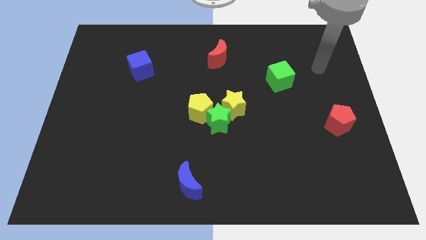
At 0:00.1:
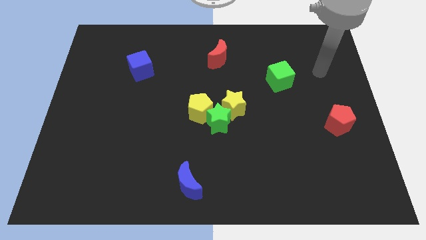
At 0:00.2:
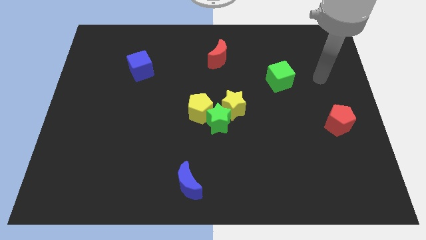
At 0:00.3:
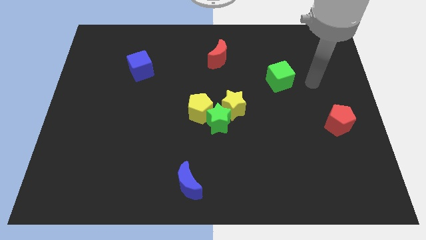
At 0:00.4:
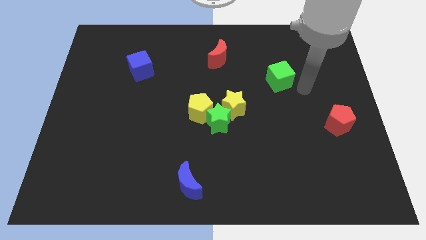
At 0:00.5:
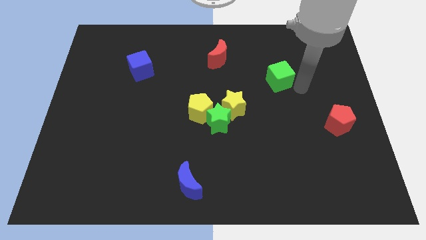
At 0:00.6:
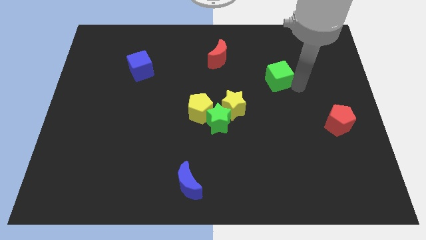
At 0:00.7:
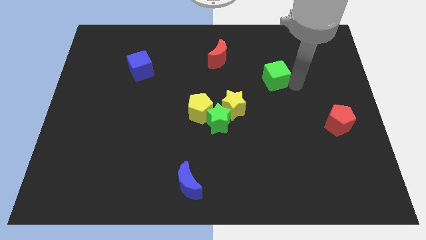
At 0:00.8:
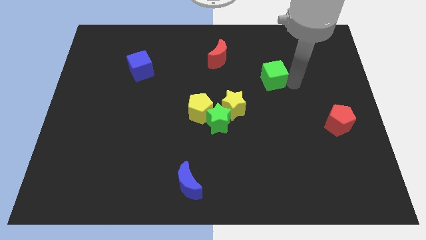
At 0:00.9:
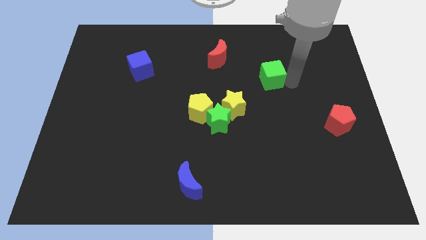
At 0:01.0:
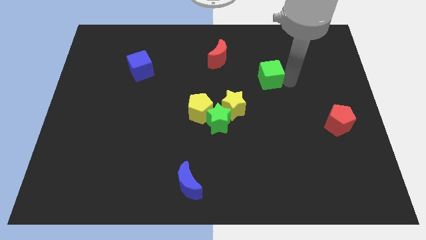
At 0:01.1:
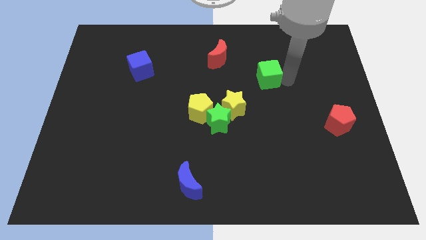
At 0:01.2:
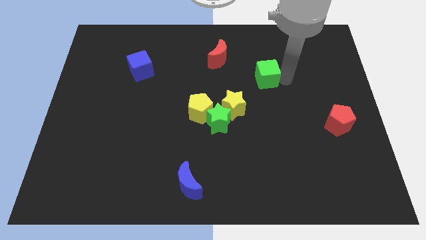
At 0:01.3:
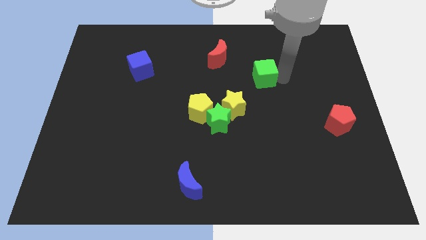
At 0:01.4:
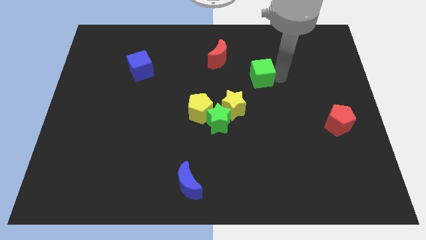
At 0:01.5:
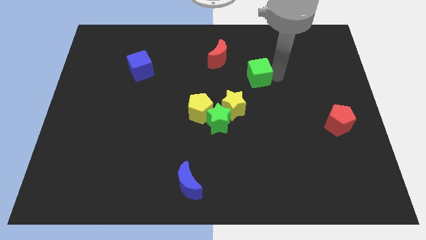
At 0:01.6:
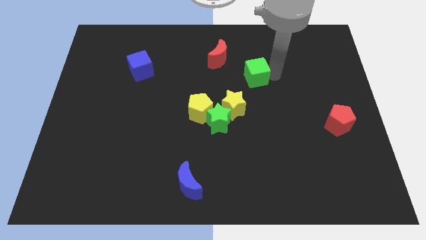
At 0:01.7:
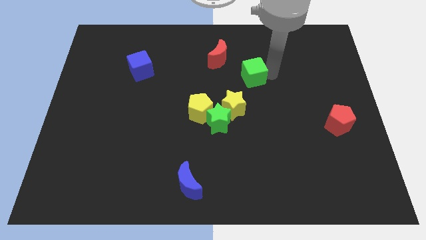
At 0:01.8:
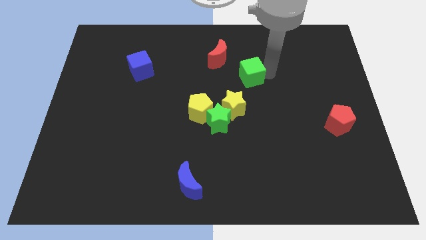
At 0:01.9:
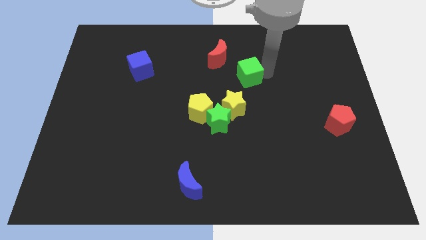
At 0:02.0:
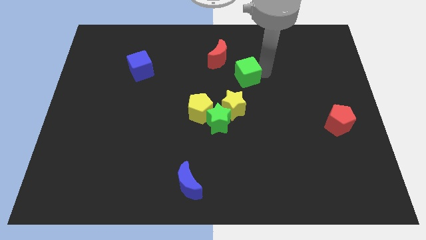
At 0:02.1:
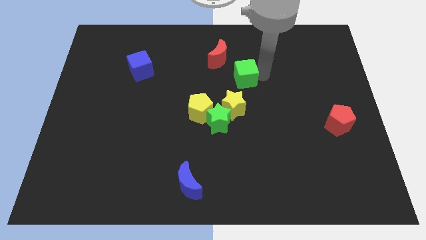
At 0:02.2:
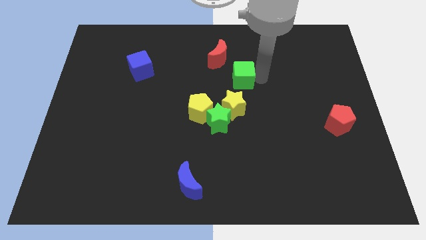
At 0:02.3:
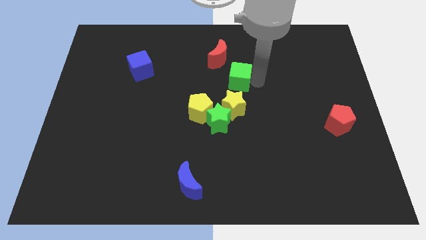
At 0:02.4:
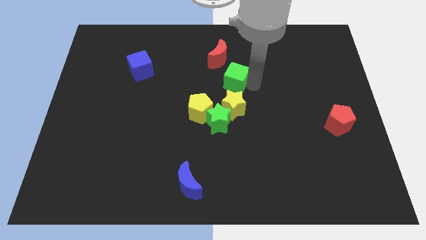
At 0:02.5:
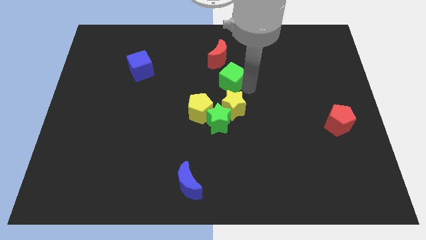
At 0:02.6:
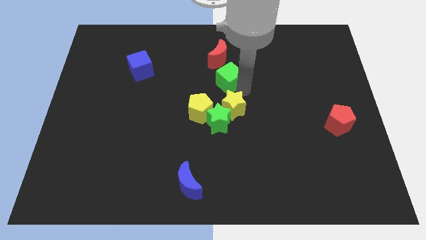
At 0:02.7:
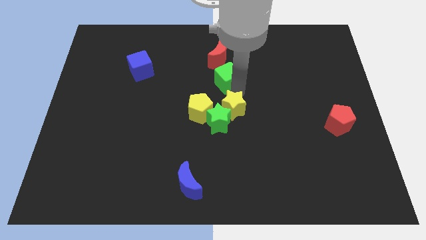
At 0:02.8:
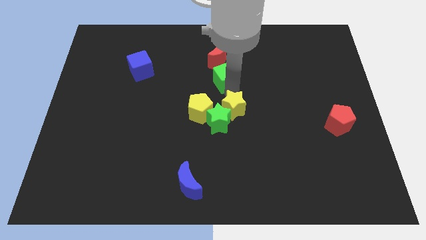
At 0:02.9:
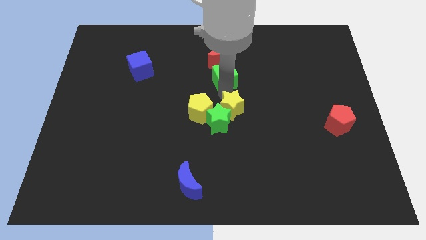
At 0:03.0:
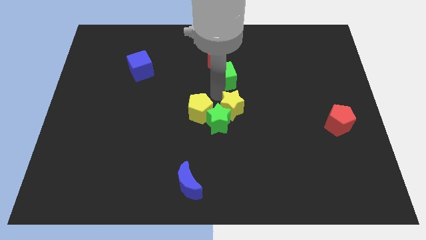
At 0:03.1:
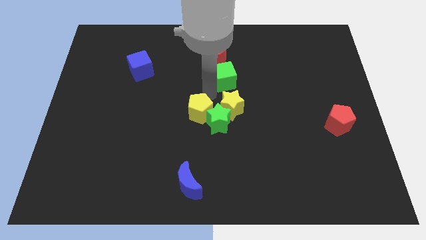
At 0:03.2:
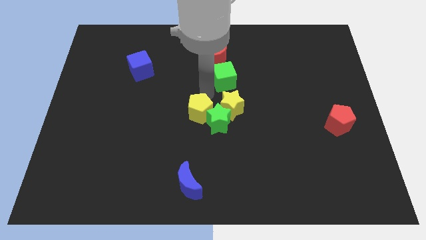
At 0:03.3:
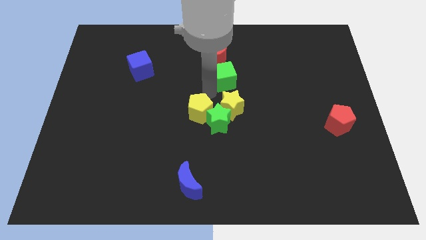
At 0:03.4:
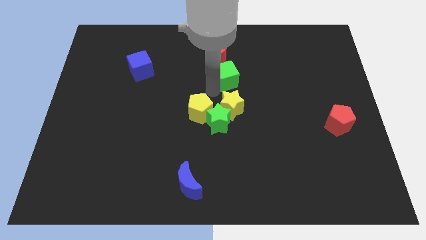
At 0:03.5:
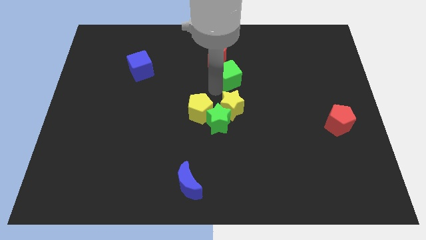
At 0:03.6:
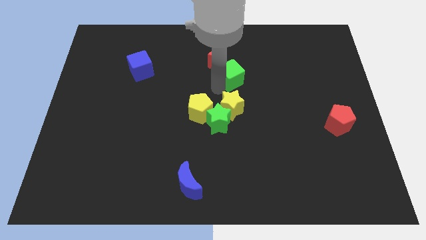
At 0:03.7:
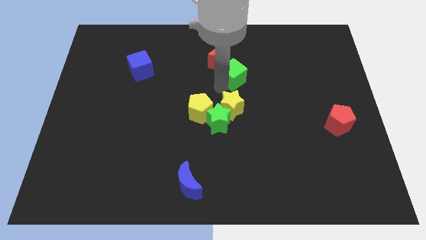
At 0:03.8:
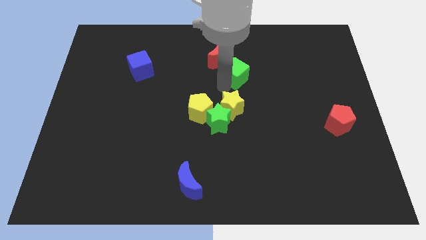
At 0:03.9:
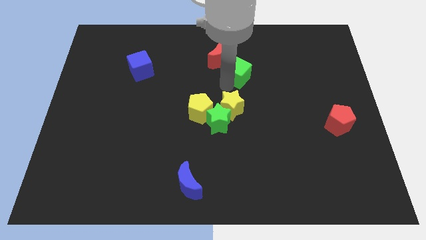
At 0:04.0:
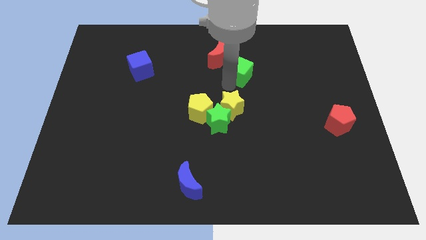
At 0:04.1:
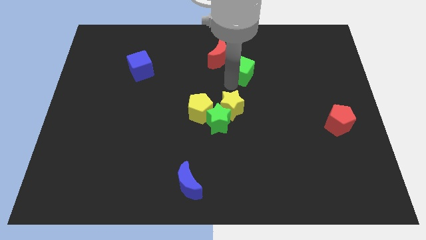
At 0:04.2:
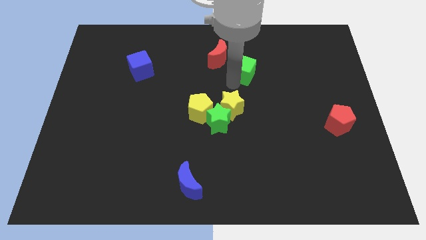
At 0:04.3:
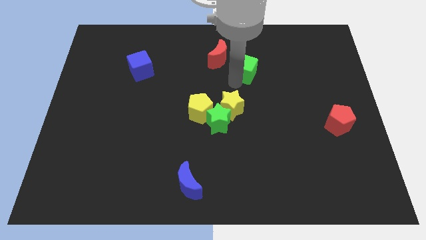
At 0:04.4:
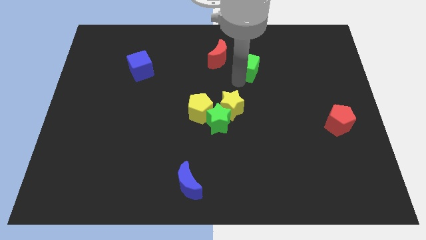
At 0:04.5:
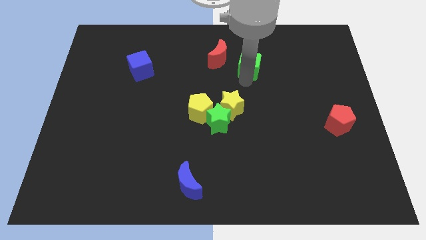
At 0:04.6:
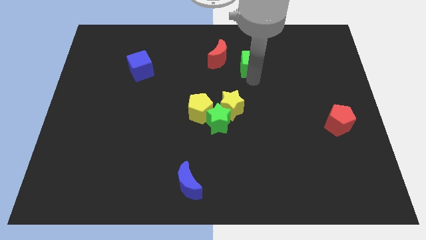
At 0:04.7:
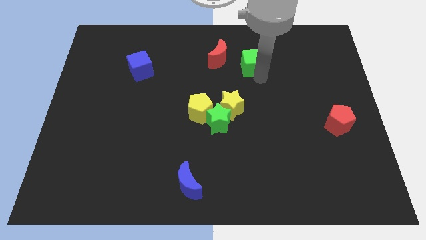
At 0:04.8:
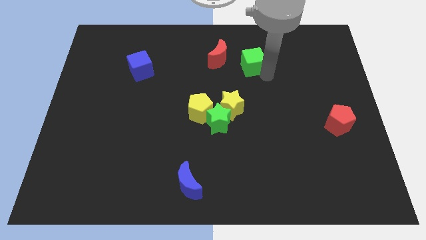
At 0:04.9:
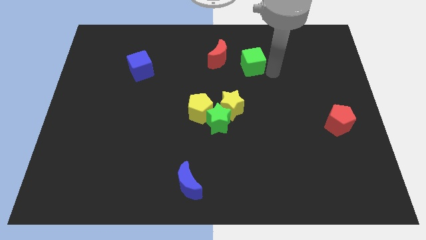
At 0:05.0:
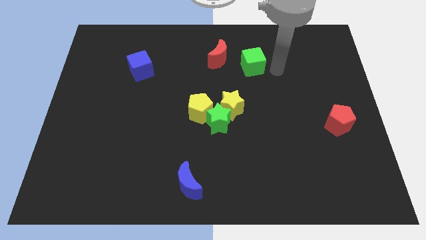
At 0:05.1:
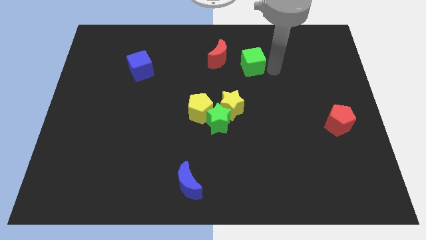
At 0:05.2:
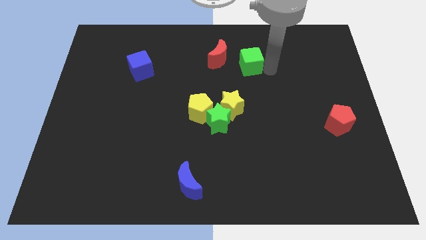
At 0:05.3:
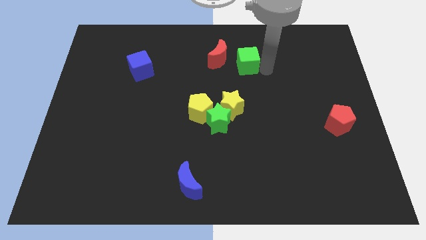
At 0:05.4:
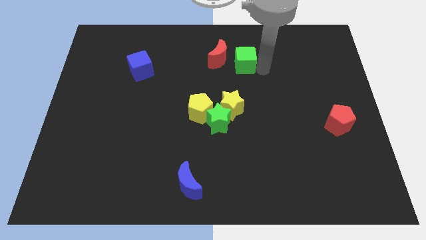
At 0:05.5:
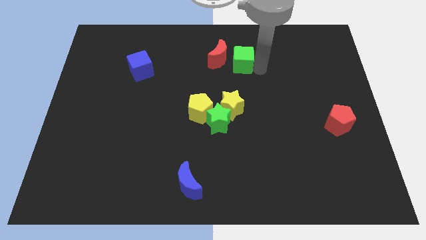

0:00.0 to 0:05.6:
push the green cube to the red moon

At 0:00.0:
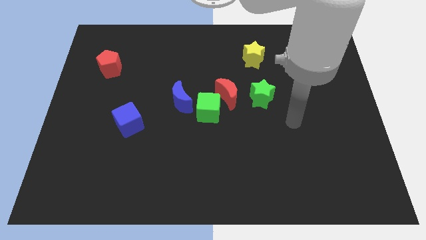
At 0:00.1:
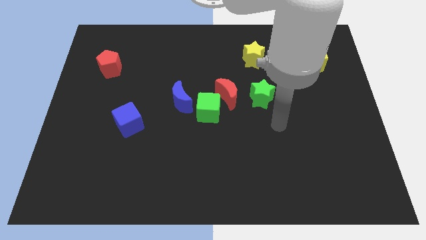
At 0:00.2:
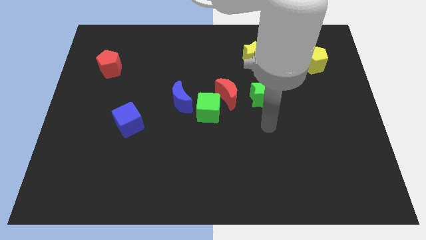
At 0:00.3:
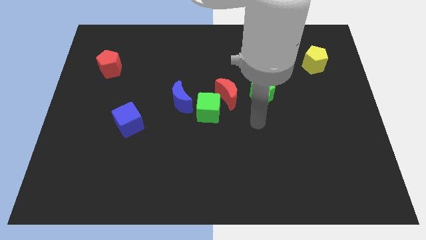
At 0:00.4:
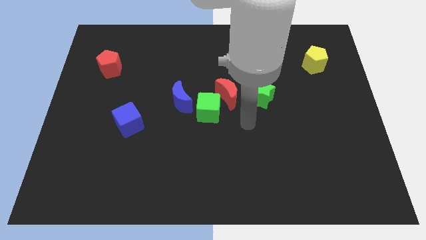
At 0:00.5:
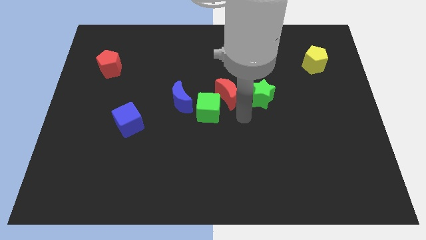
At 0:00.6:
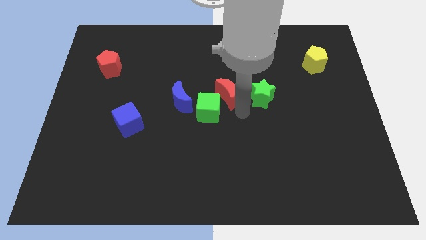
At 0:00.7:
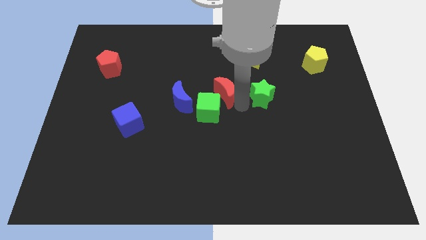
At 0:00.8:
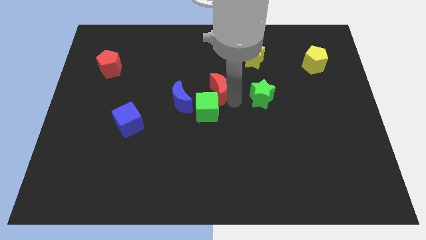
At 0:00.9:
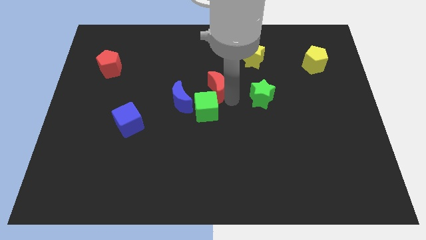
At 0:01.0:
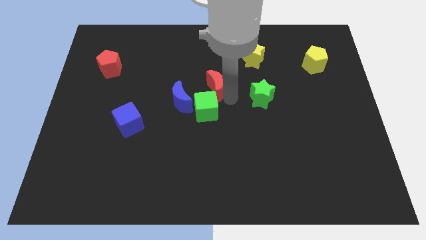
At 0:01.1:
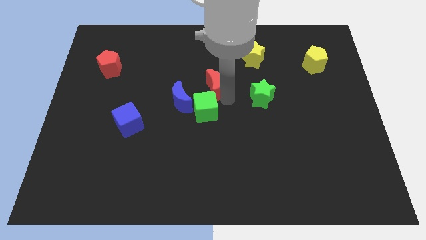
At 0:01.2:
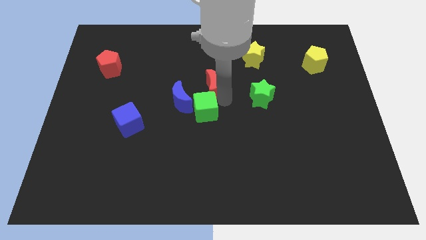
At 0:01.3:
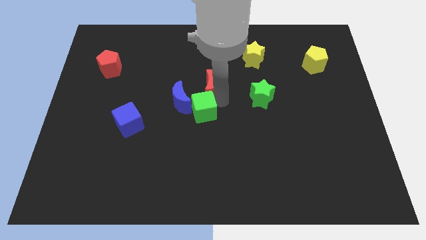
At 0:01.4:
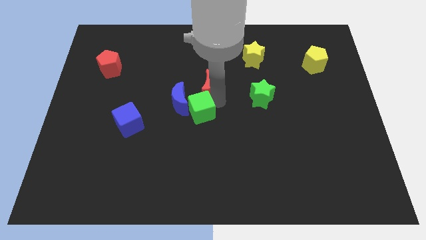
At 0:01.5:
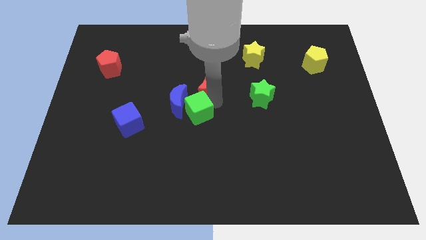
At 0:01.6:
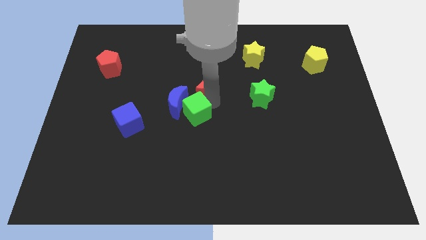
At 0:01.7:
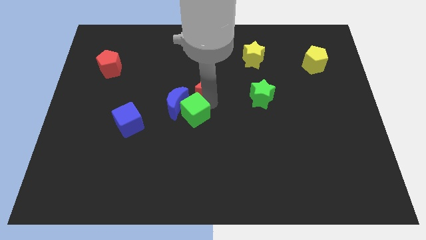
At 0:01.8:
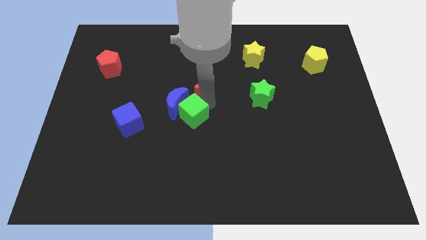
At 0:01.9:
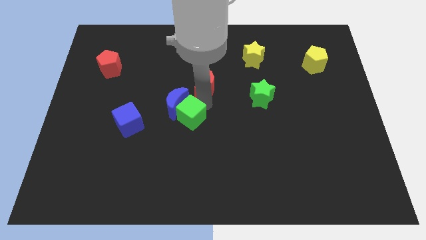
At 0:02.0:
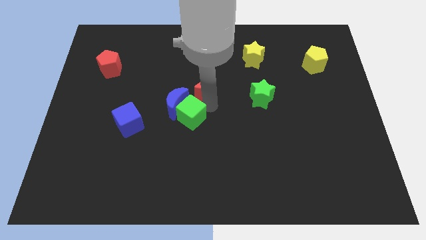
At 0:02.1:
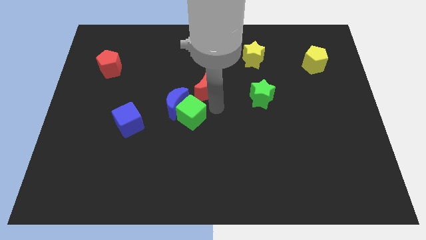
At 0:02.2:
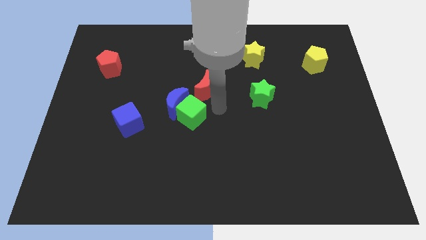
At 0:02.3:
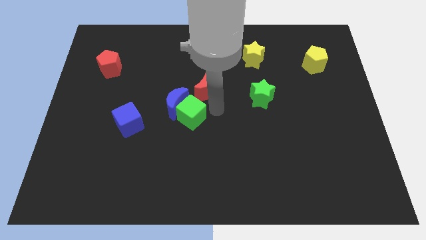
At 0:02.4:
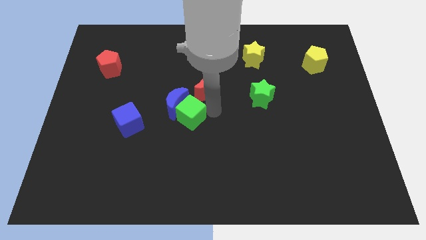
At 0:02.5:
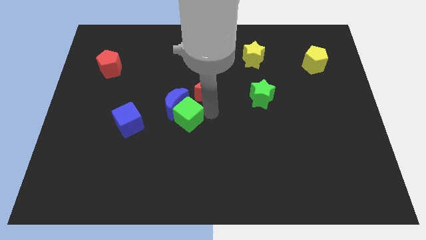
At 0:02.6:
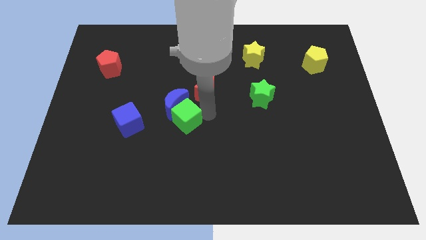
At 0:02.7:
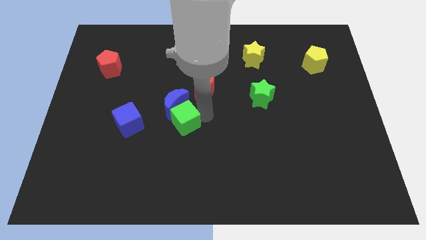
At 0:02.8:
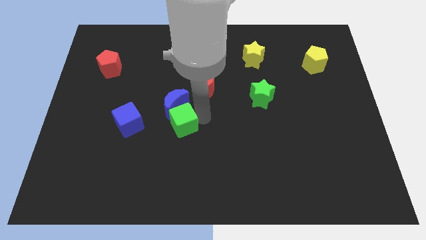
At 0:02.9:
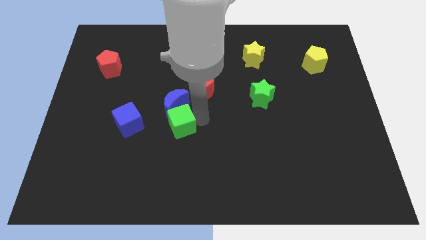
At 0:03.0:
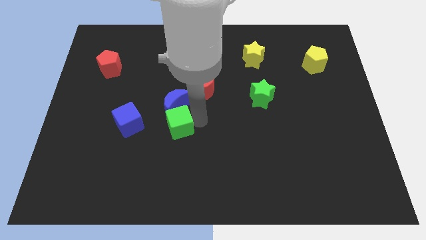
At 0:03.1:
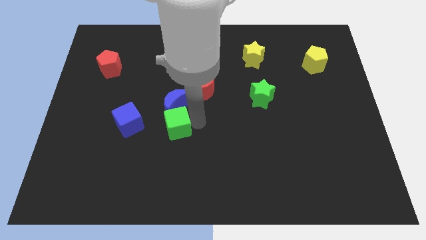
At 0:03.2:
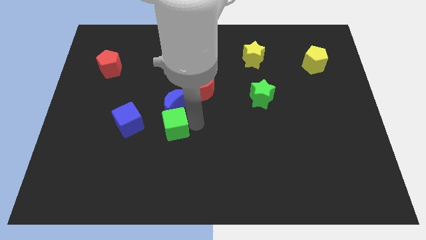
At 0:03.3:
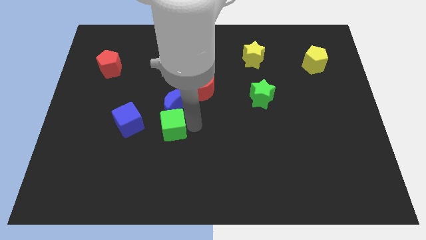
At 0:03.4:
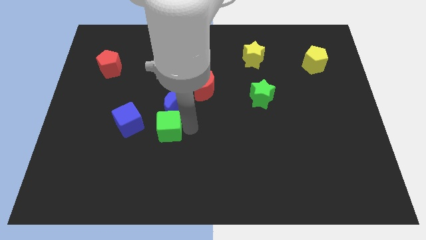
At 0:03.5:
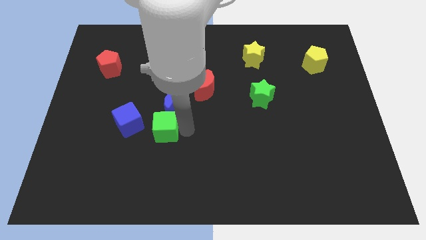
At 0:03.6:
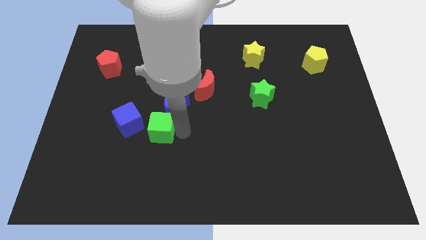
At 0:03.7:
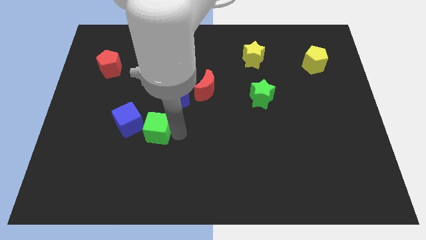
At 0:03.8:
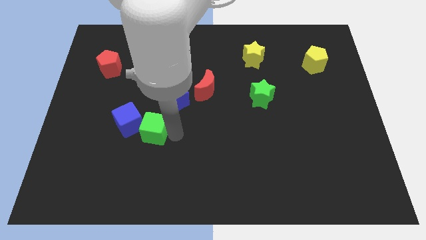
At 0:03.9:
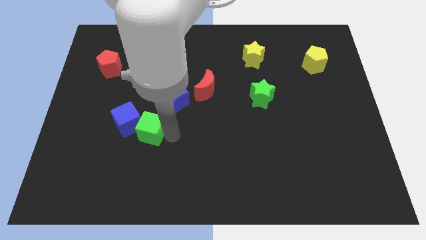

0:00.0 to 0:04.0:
push the green cube close to the blue cube
